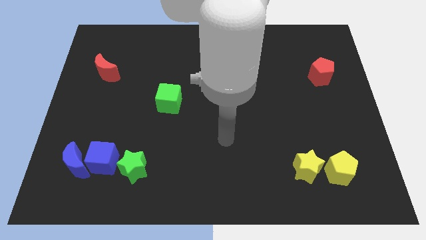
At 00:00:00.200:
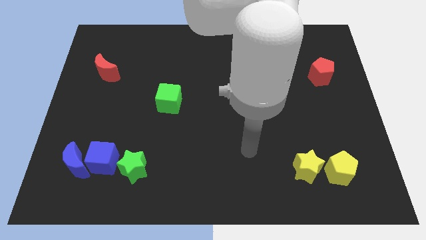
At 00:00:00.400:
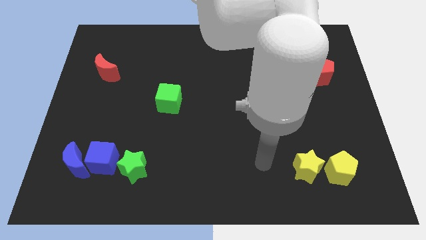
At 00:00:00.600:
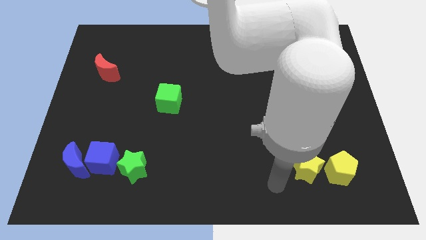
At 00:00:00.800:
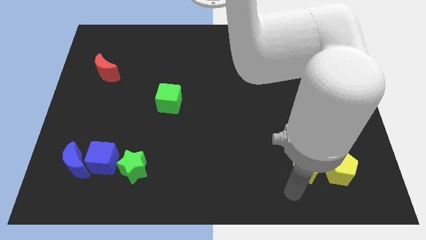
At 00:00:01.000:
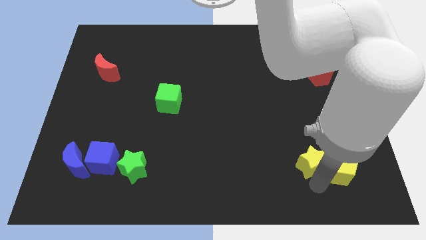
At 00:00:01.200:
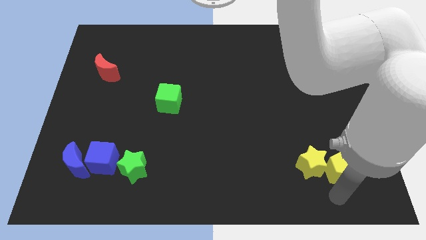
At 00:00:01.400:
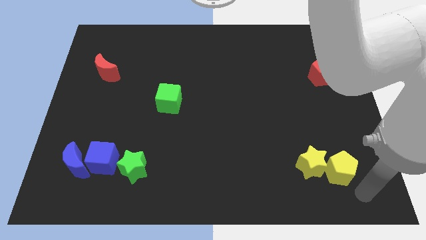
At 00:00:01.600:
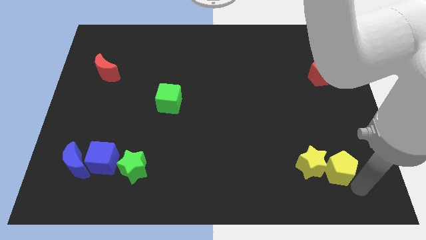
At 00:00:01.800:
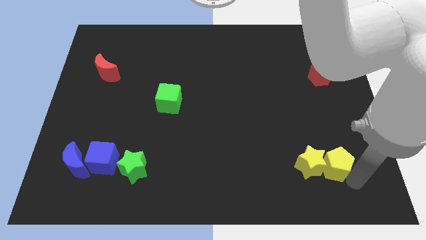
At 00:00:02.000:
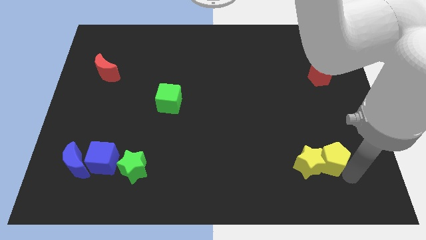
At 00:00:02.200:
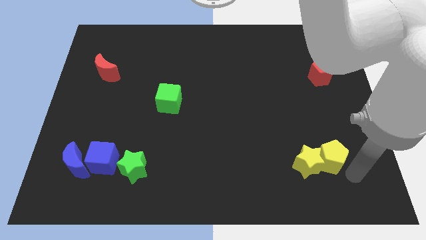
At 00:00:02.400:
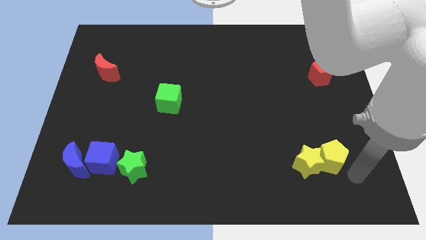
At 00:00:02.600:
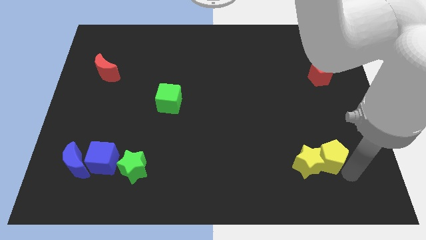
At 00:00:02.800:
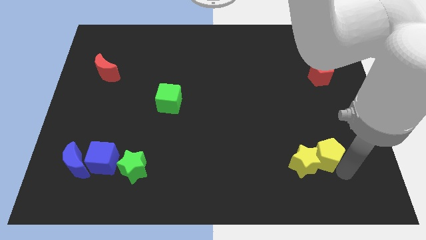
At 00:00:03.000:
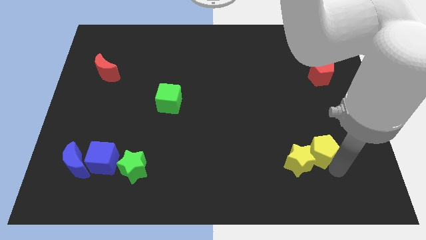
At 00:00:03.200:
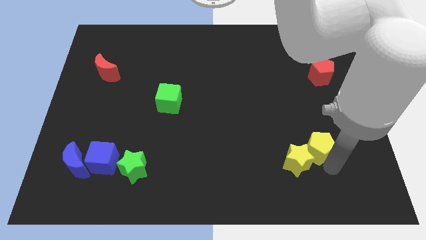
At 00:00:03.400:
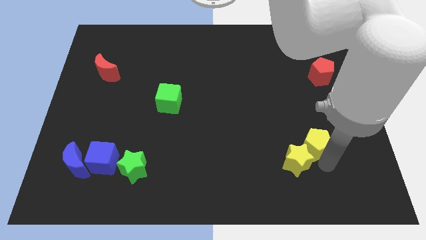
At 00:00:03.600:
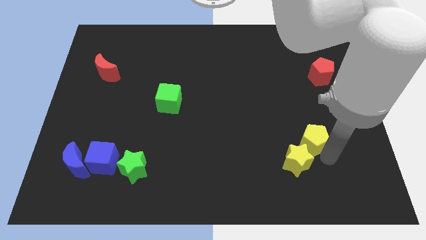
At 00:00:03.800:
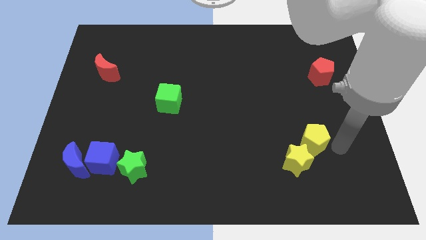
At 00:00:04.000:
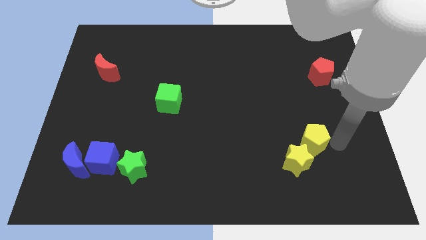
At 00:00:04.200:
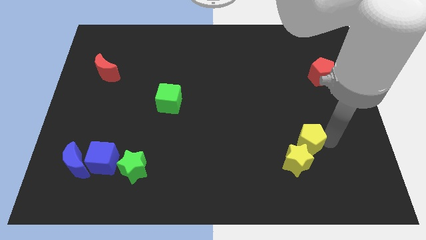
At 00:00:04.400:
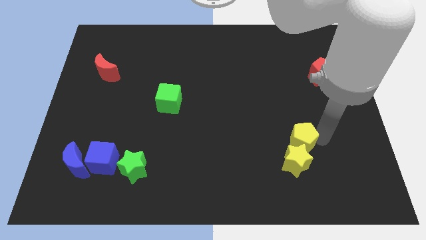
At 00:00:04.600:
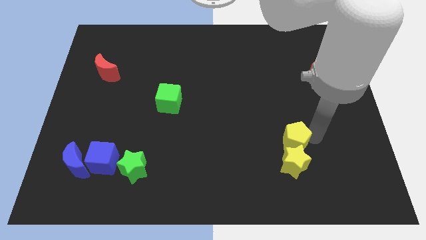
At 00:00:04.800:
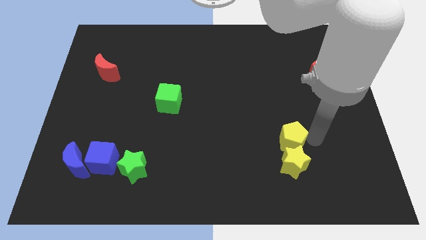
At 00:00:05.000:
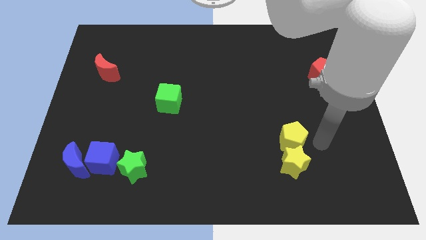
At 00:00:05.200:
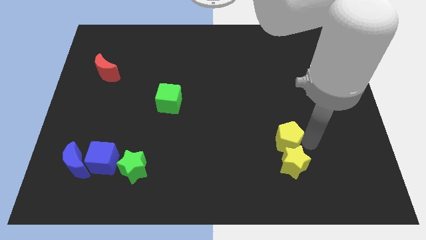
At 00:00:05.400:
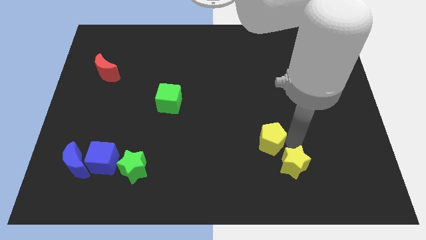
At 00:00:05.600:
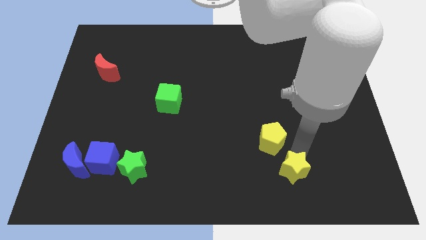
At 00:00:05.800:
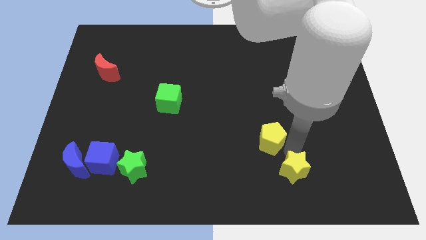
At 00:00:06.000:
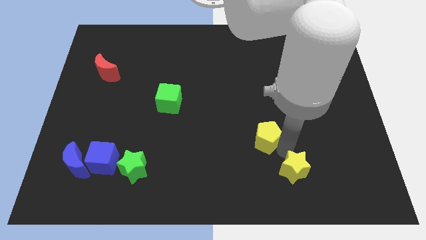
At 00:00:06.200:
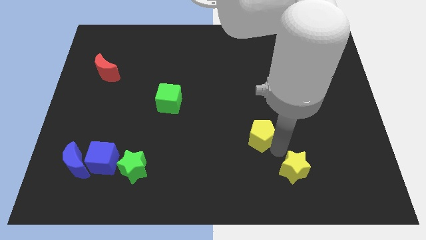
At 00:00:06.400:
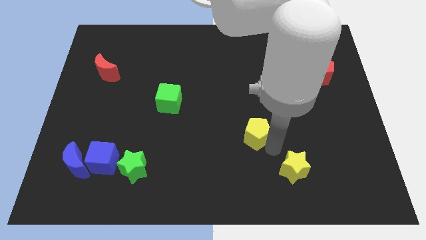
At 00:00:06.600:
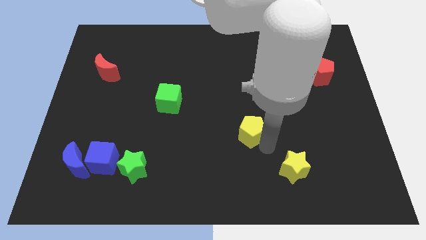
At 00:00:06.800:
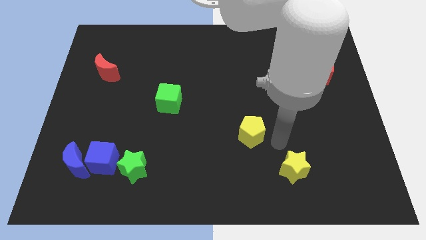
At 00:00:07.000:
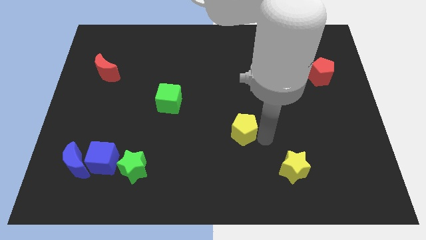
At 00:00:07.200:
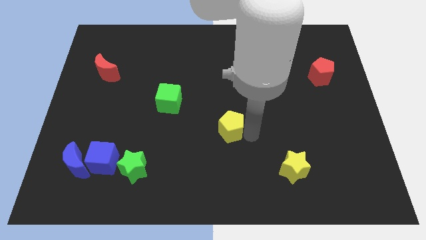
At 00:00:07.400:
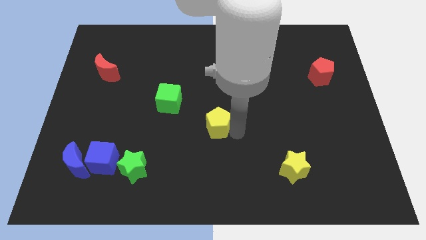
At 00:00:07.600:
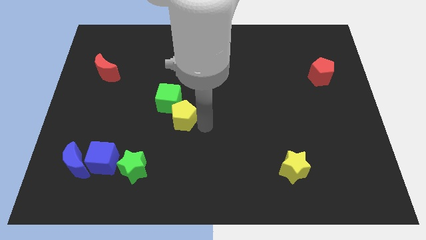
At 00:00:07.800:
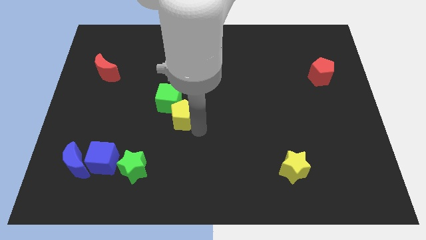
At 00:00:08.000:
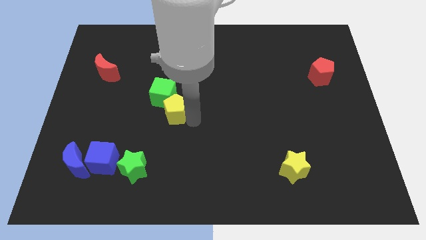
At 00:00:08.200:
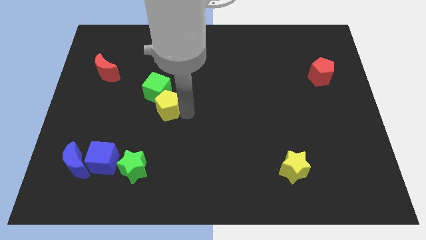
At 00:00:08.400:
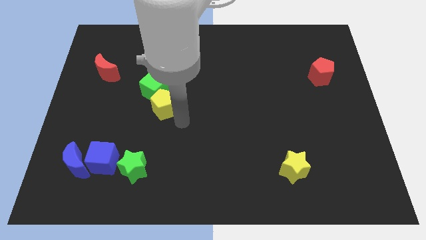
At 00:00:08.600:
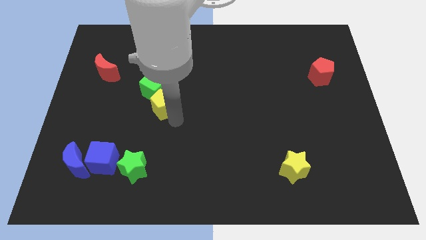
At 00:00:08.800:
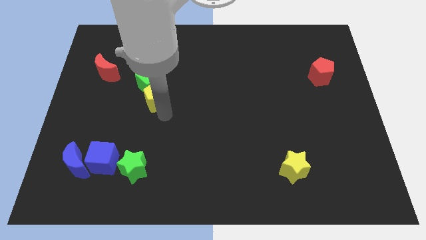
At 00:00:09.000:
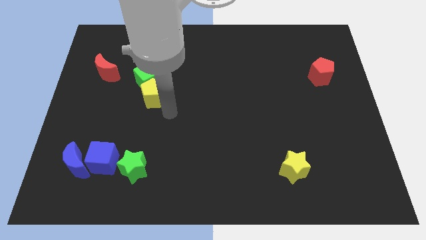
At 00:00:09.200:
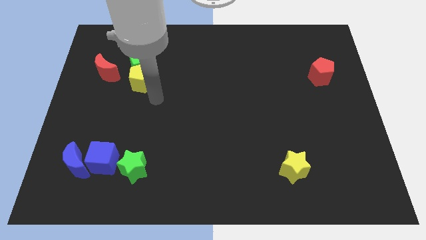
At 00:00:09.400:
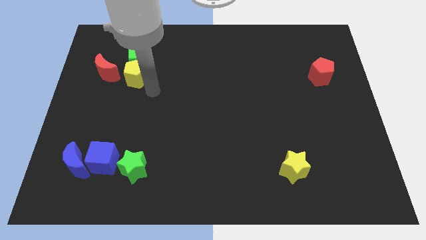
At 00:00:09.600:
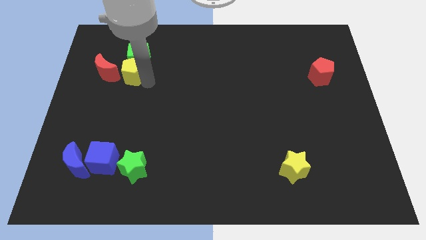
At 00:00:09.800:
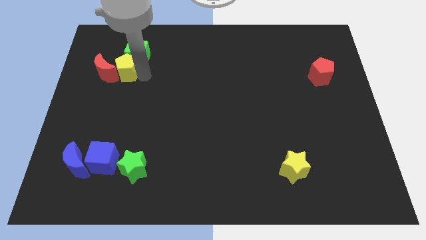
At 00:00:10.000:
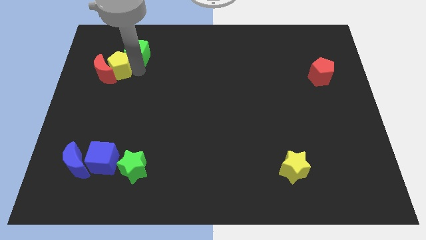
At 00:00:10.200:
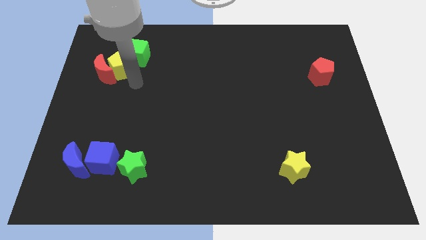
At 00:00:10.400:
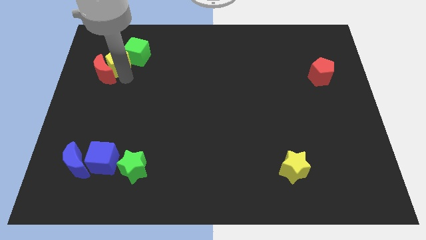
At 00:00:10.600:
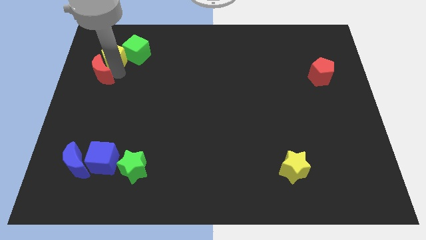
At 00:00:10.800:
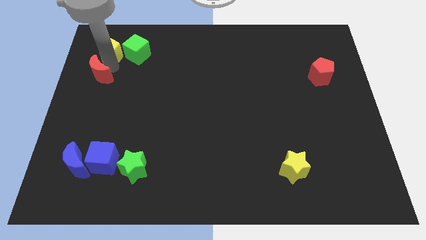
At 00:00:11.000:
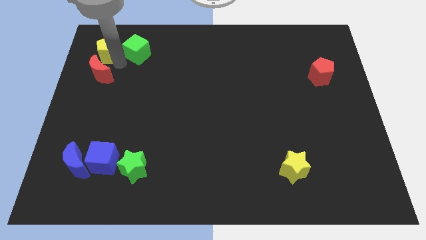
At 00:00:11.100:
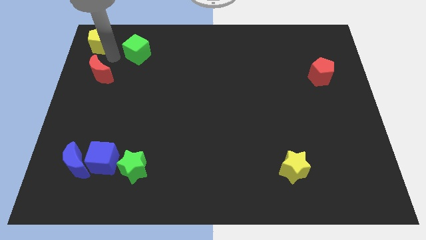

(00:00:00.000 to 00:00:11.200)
slide the yellow pentagon to the top left of the board
